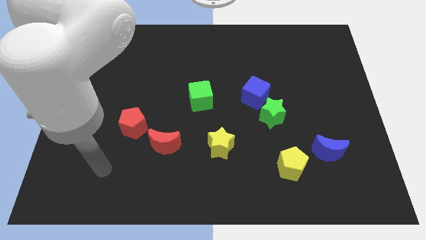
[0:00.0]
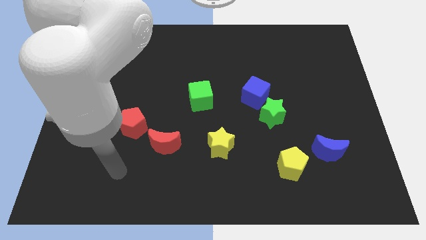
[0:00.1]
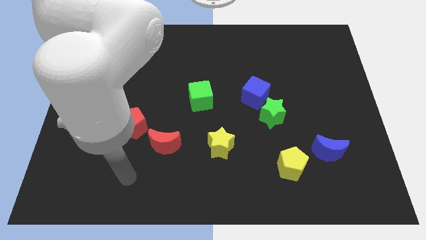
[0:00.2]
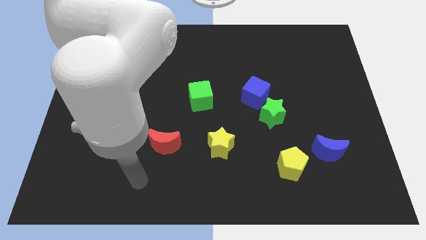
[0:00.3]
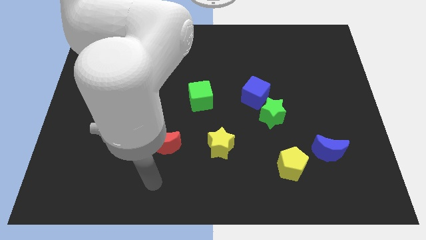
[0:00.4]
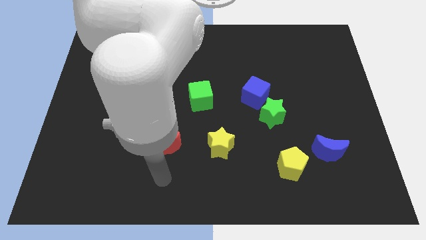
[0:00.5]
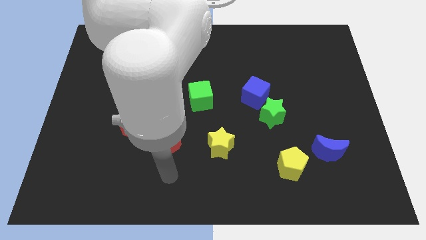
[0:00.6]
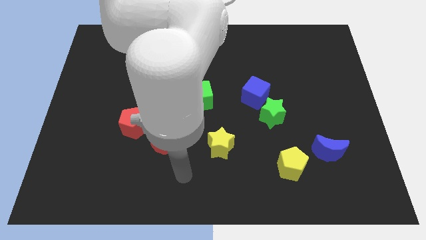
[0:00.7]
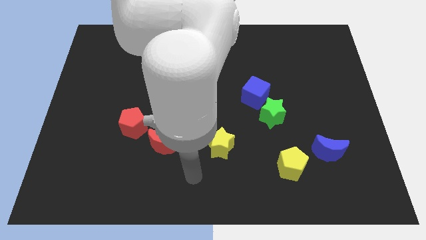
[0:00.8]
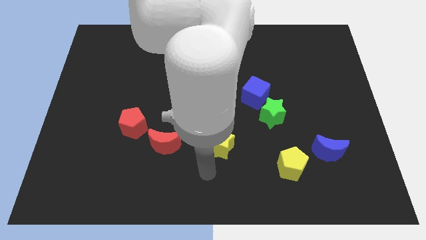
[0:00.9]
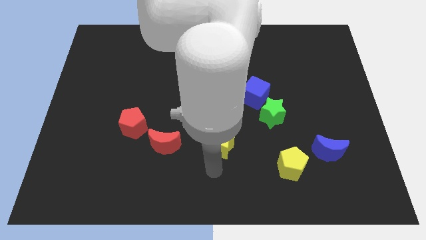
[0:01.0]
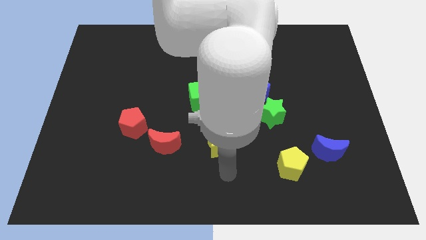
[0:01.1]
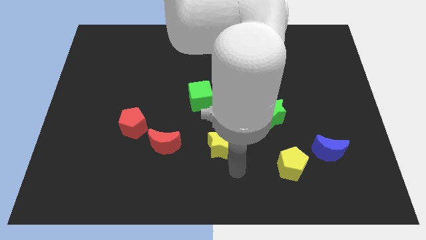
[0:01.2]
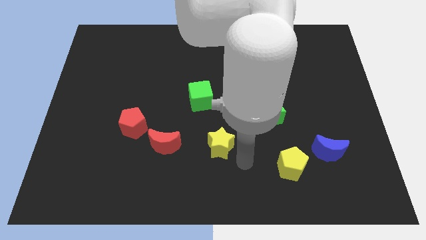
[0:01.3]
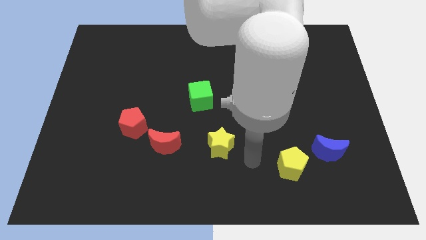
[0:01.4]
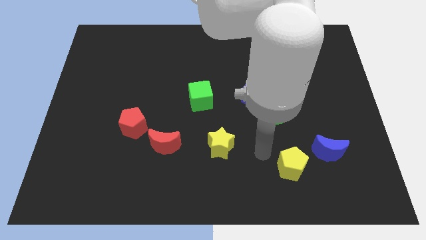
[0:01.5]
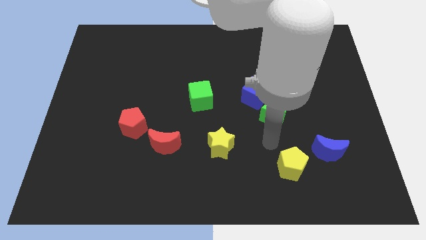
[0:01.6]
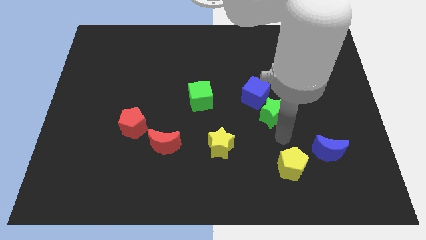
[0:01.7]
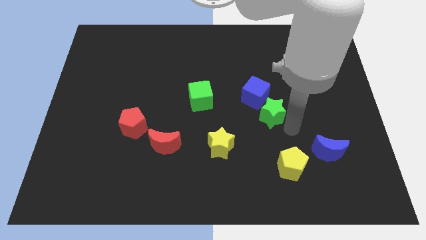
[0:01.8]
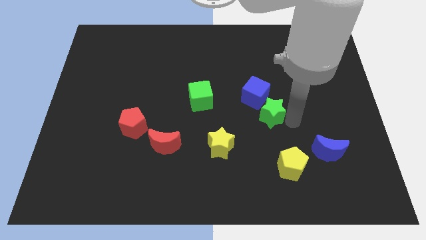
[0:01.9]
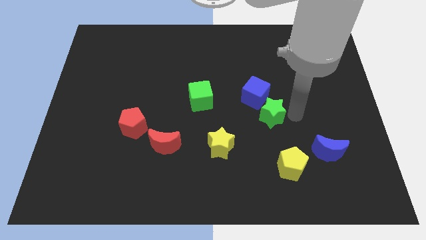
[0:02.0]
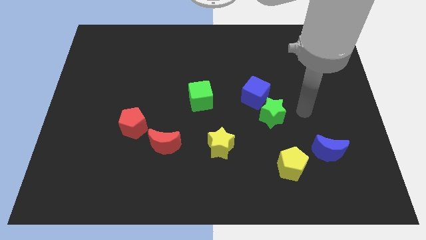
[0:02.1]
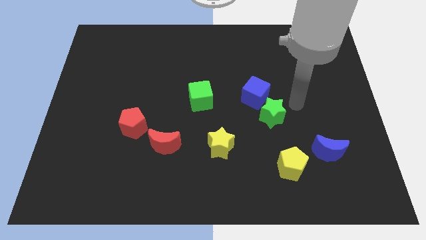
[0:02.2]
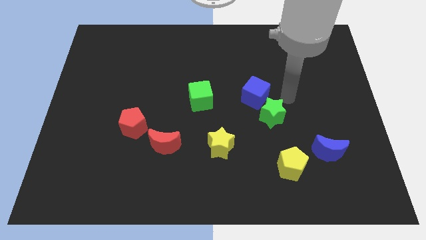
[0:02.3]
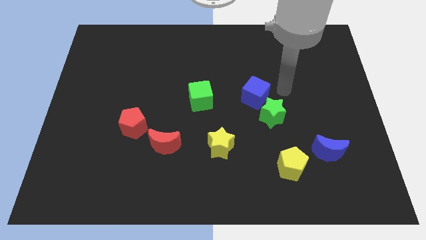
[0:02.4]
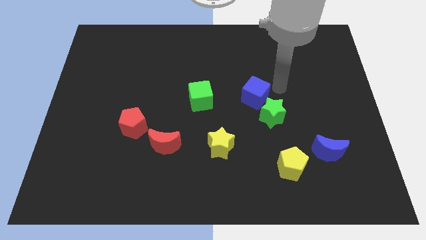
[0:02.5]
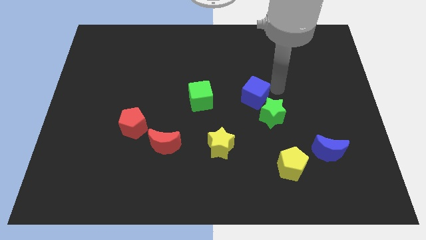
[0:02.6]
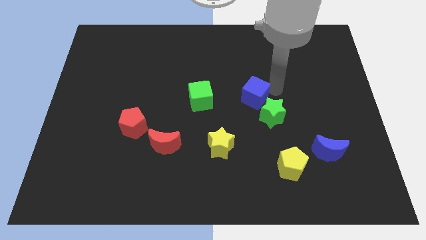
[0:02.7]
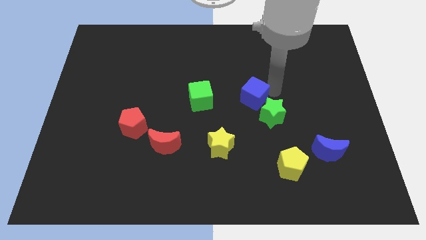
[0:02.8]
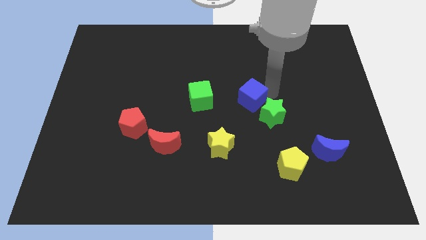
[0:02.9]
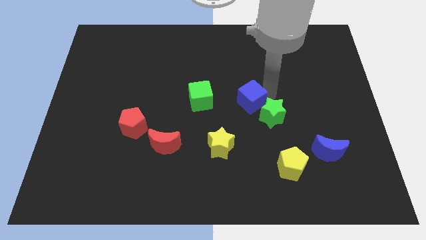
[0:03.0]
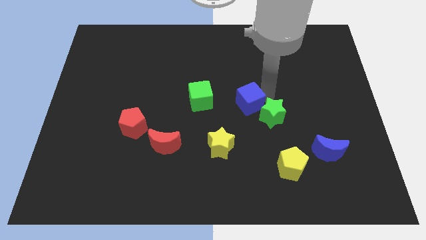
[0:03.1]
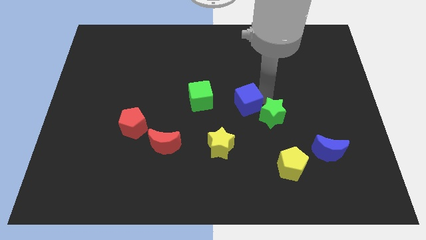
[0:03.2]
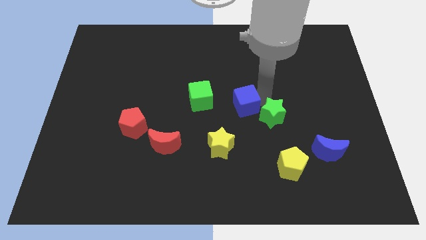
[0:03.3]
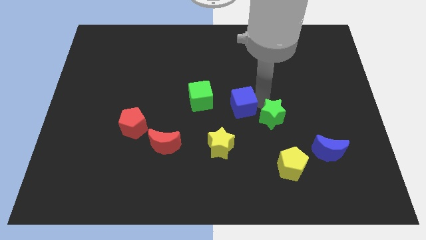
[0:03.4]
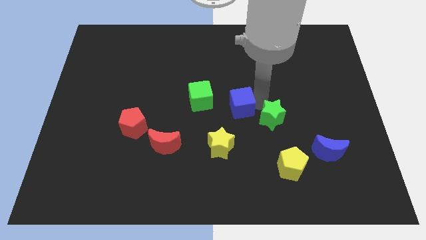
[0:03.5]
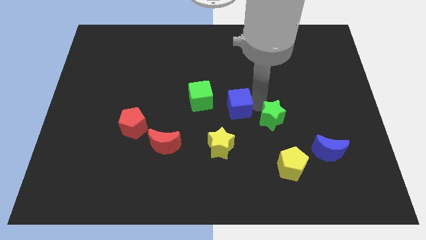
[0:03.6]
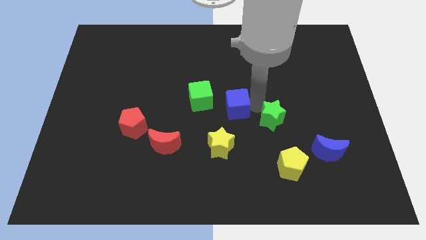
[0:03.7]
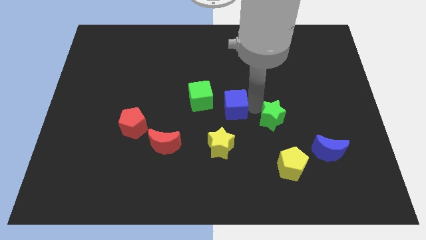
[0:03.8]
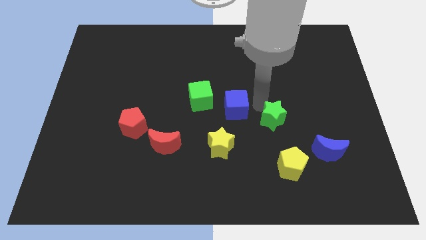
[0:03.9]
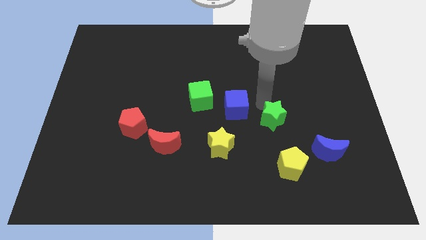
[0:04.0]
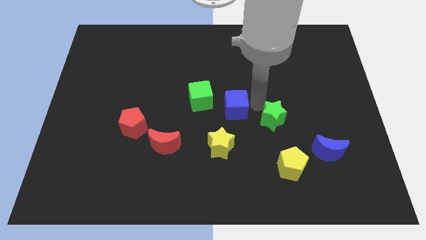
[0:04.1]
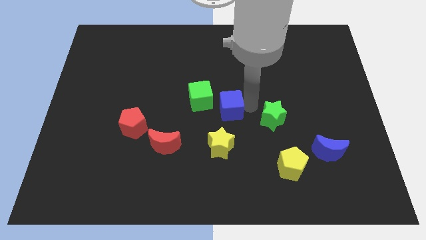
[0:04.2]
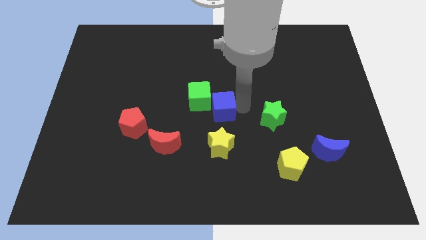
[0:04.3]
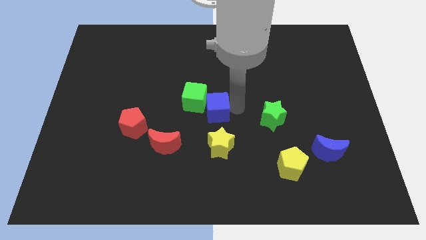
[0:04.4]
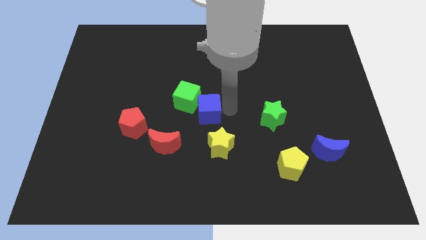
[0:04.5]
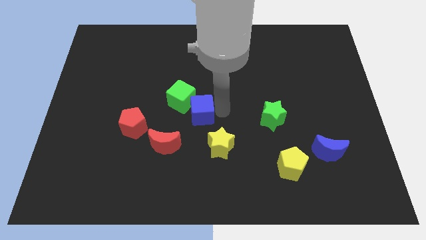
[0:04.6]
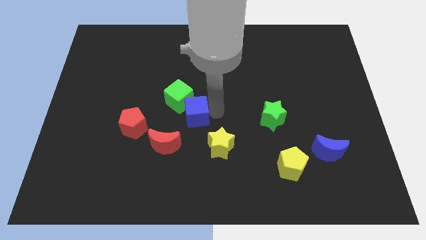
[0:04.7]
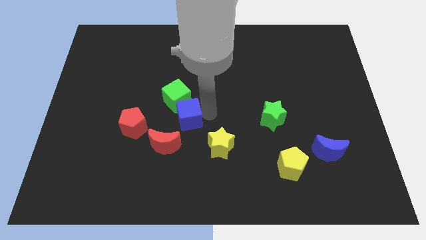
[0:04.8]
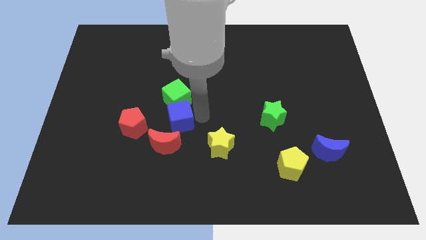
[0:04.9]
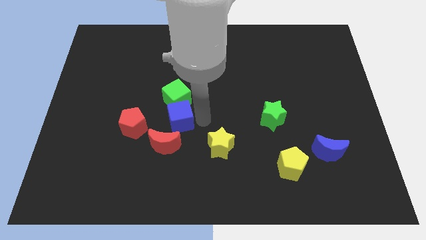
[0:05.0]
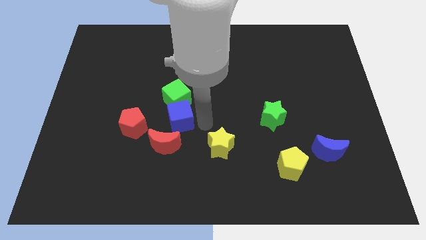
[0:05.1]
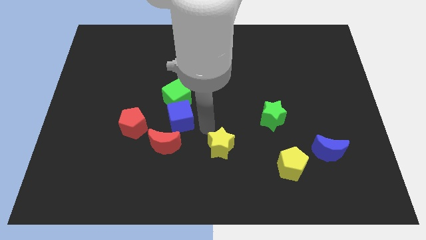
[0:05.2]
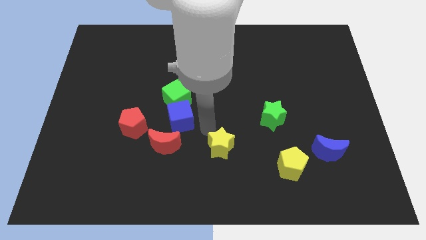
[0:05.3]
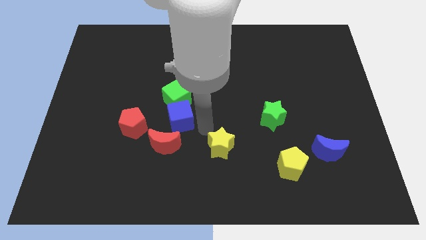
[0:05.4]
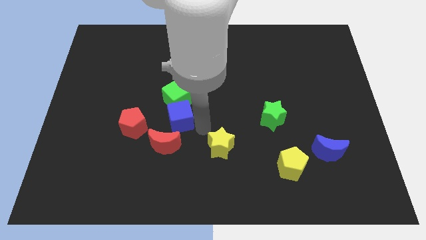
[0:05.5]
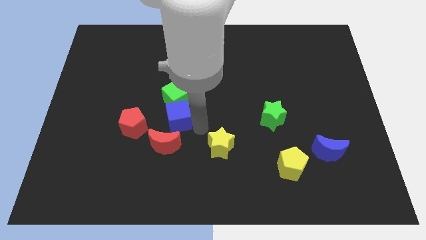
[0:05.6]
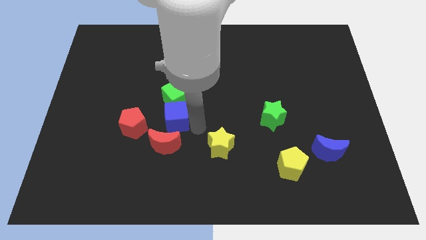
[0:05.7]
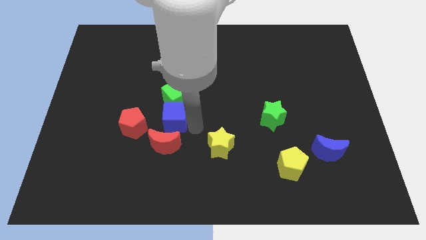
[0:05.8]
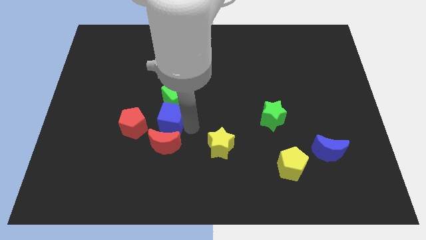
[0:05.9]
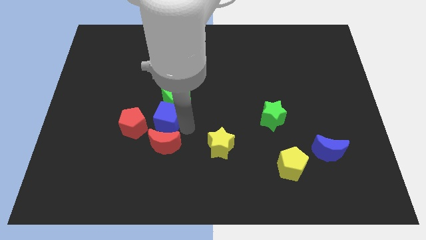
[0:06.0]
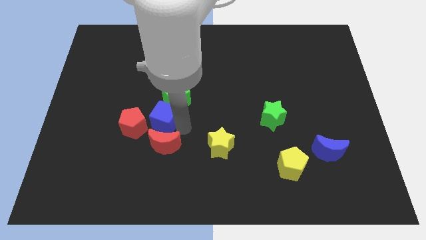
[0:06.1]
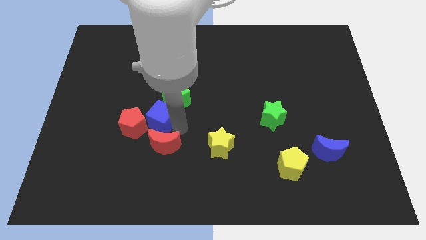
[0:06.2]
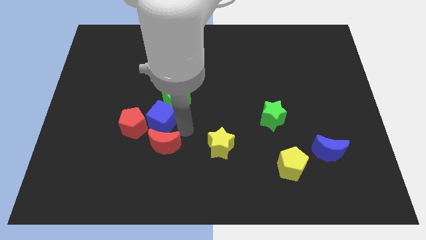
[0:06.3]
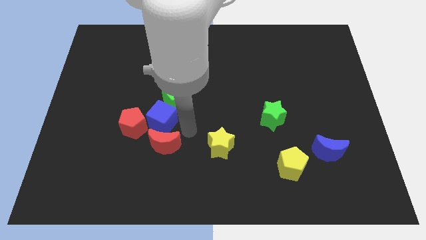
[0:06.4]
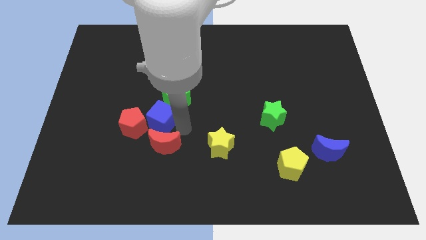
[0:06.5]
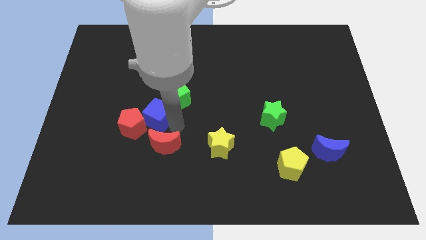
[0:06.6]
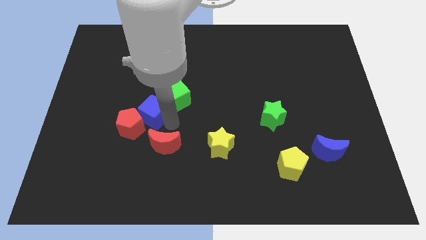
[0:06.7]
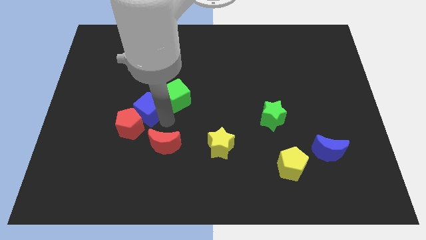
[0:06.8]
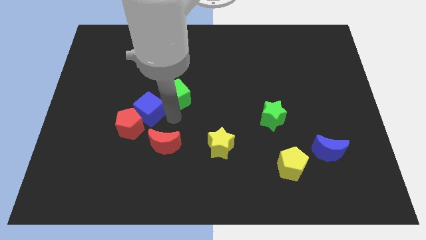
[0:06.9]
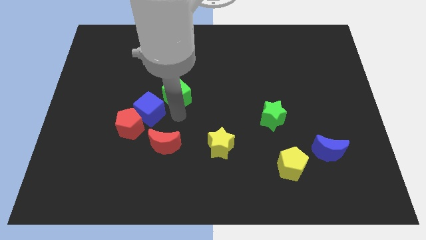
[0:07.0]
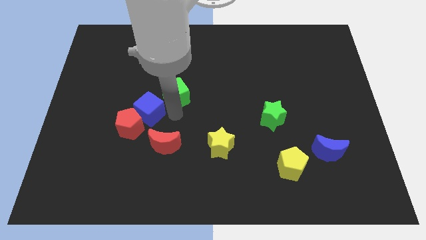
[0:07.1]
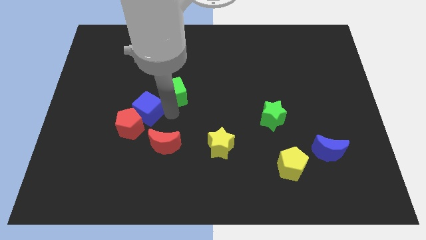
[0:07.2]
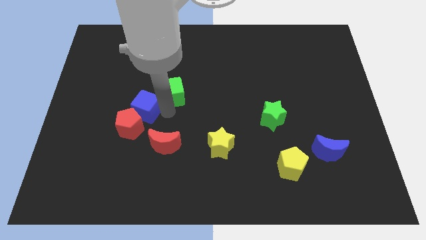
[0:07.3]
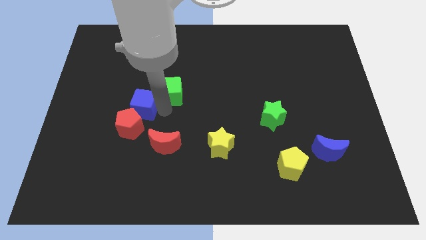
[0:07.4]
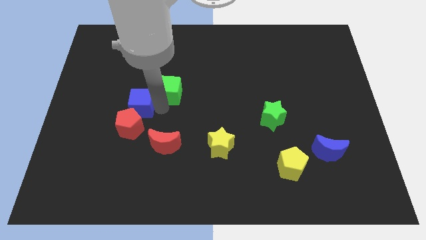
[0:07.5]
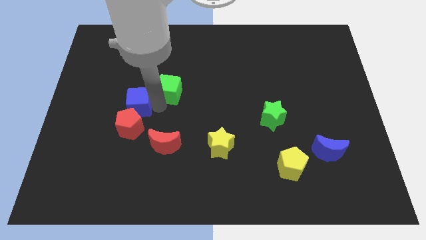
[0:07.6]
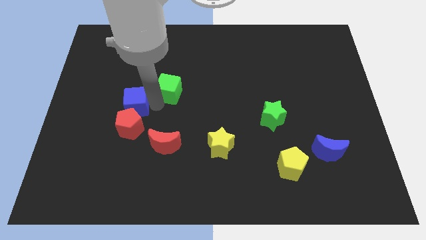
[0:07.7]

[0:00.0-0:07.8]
push the blue cube to the top left of the red pentagon
